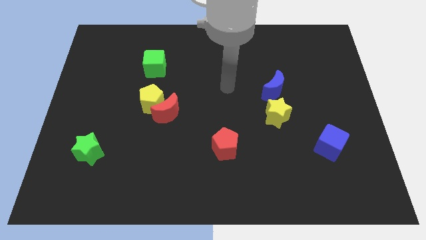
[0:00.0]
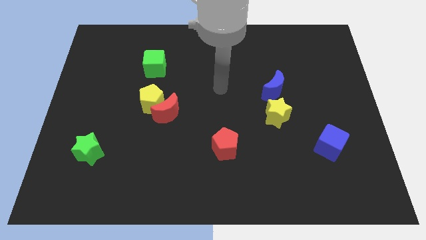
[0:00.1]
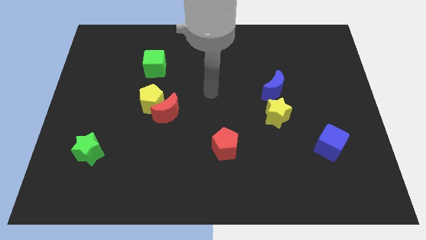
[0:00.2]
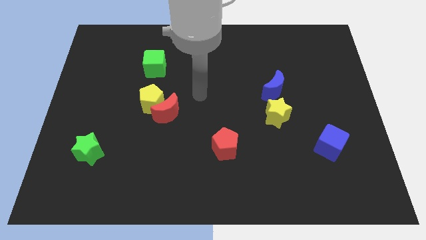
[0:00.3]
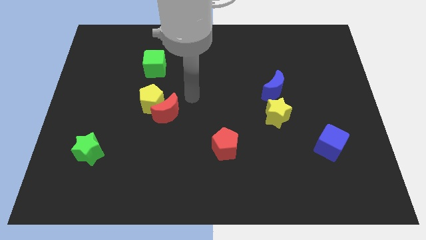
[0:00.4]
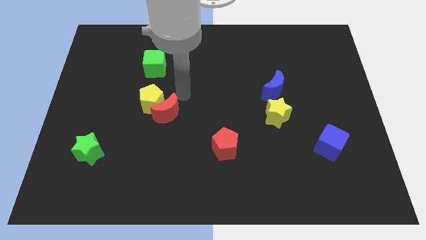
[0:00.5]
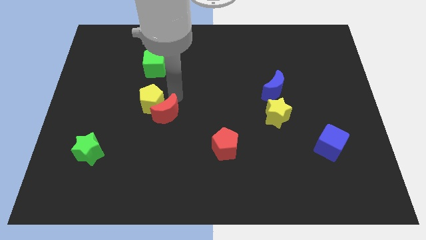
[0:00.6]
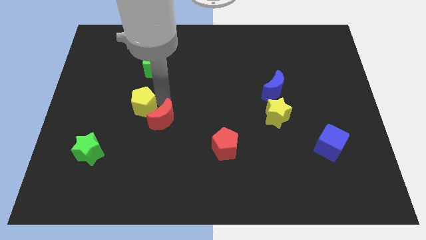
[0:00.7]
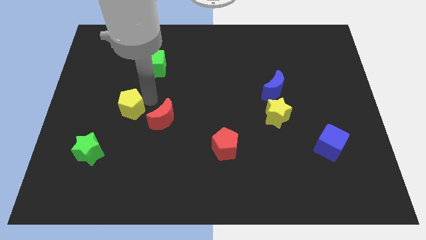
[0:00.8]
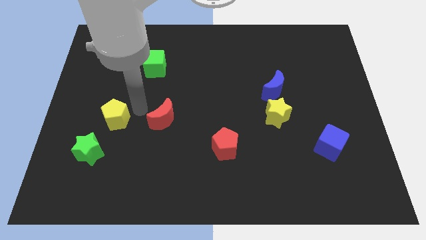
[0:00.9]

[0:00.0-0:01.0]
separate the red moon from the yellow pentagon

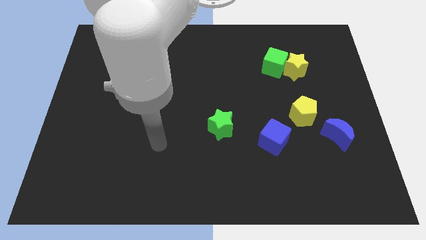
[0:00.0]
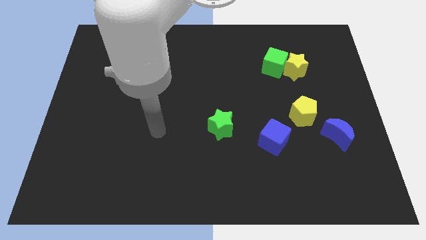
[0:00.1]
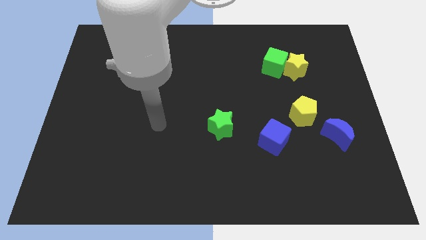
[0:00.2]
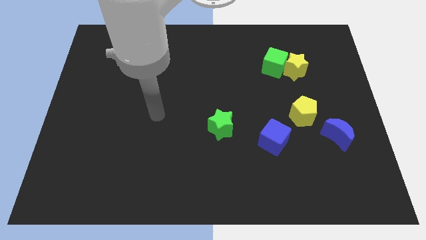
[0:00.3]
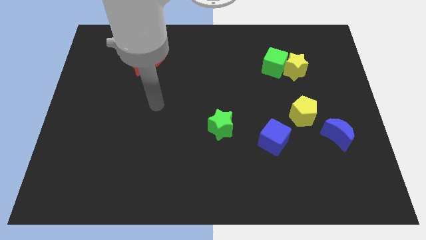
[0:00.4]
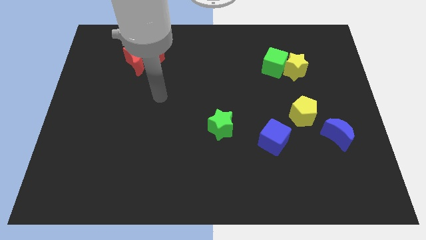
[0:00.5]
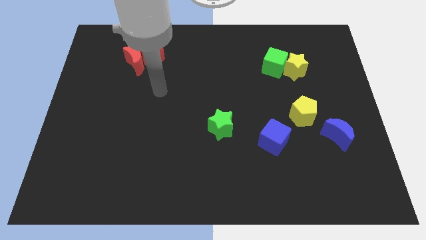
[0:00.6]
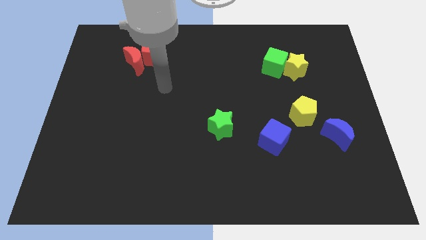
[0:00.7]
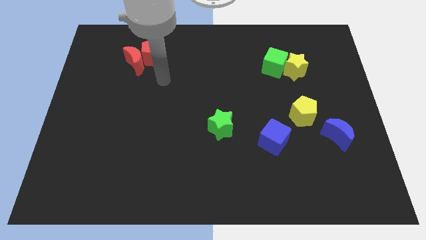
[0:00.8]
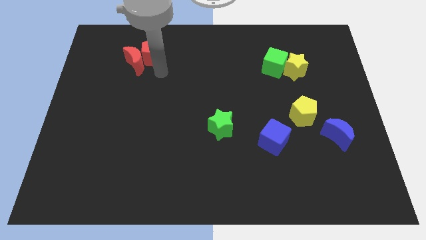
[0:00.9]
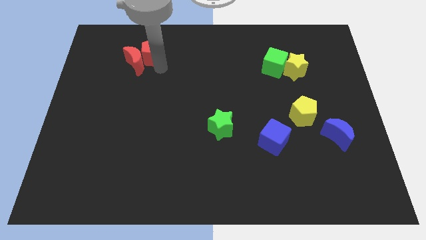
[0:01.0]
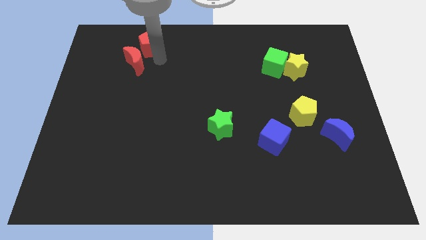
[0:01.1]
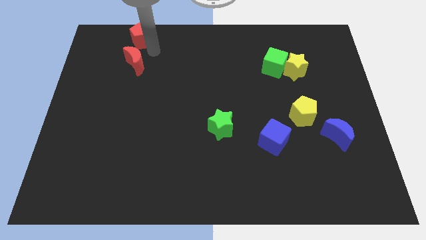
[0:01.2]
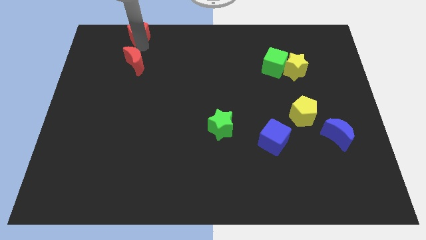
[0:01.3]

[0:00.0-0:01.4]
pull the red moon apart from the red pentagon

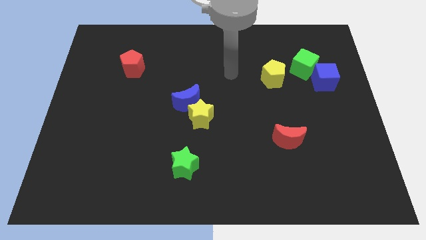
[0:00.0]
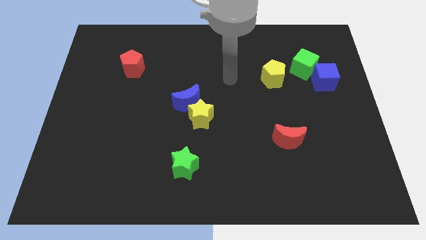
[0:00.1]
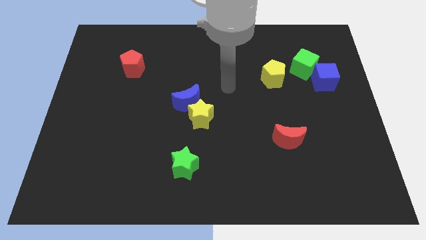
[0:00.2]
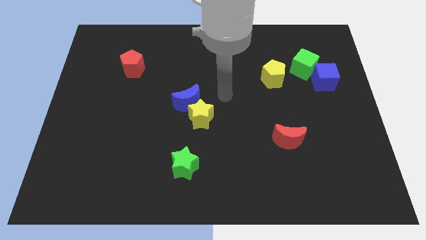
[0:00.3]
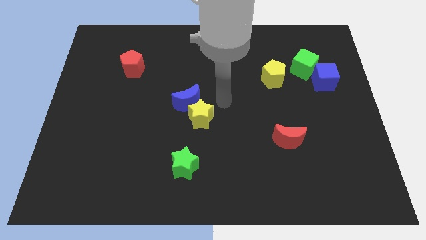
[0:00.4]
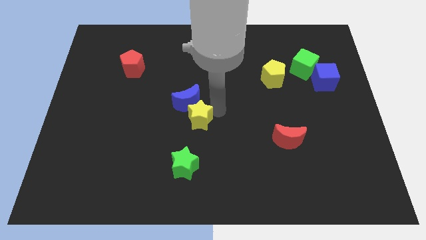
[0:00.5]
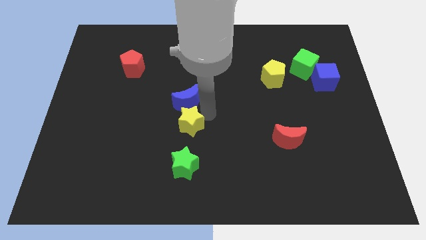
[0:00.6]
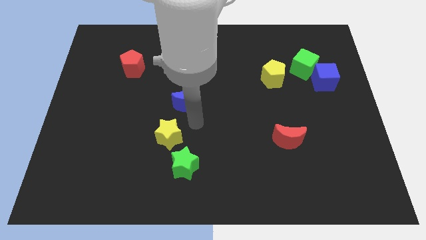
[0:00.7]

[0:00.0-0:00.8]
move the blue moon away from the yellow star

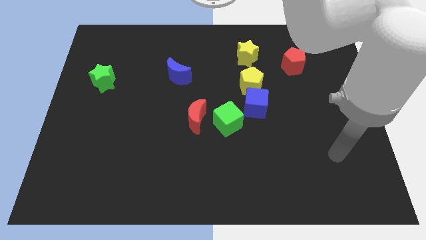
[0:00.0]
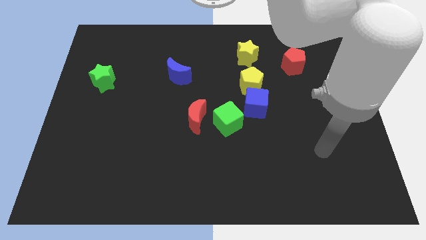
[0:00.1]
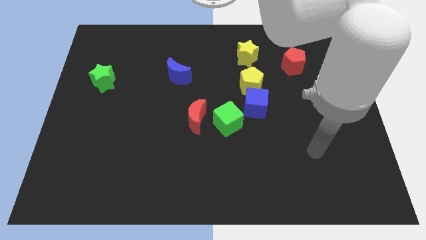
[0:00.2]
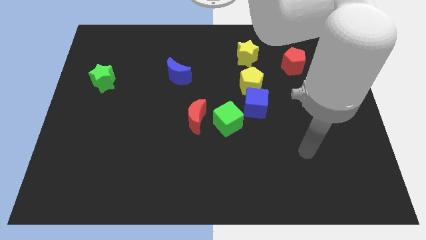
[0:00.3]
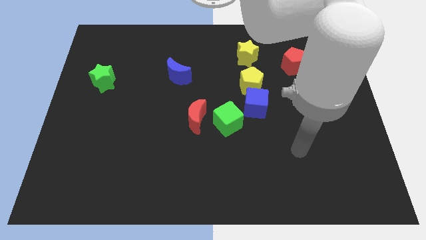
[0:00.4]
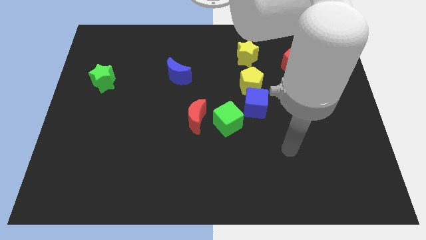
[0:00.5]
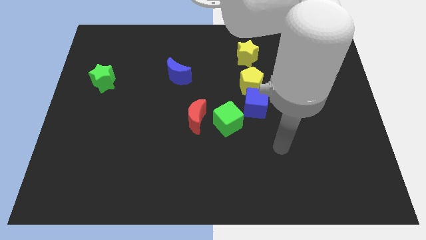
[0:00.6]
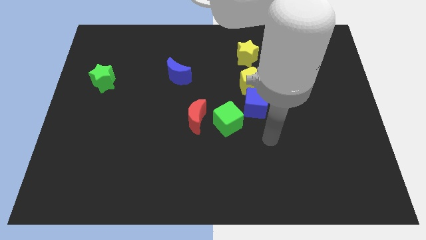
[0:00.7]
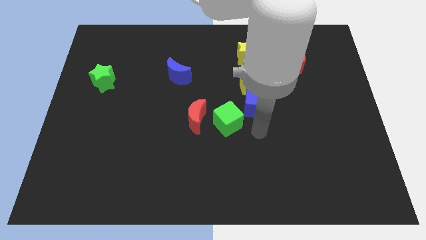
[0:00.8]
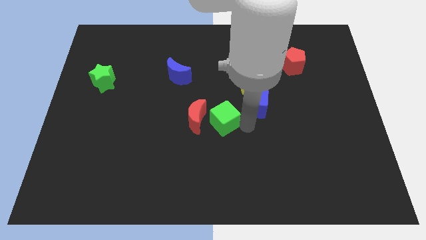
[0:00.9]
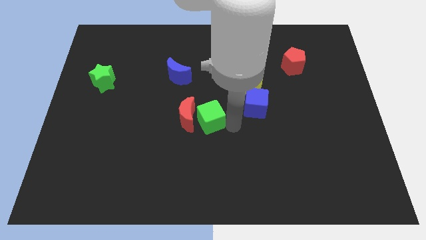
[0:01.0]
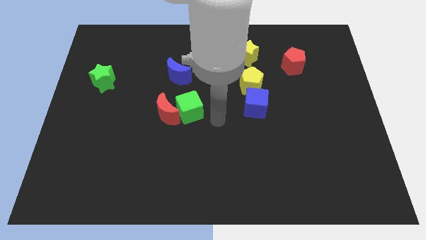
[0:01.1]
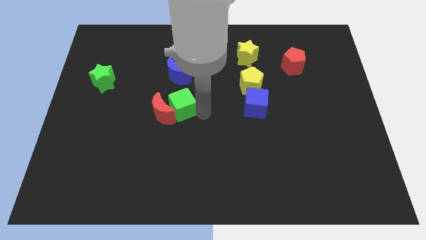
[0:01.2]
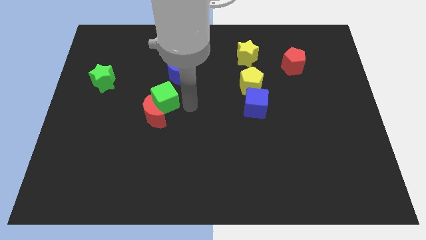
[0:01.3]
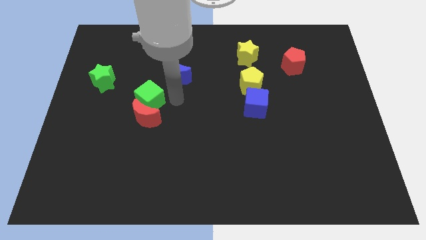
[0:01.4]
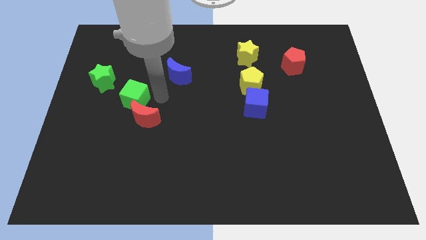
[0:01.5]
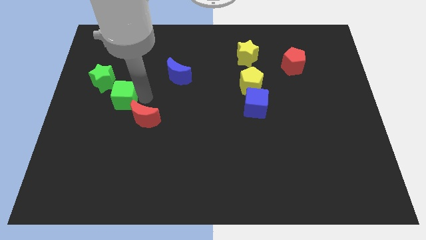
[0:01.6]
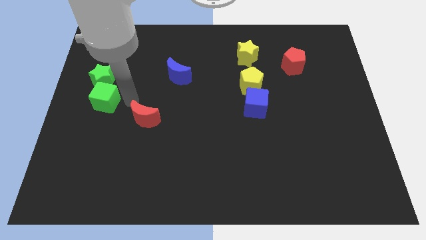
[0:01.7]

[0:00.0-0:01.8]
move the red moon away from the green cube

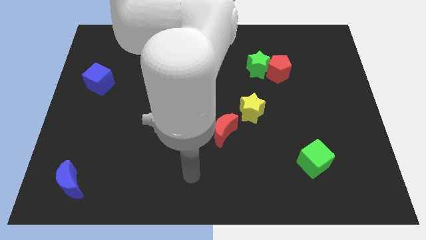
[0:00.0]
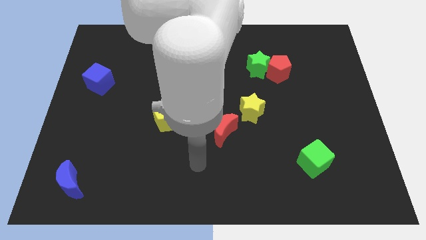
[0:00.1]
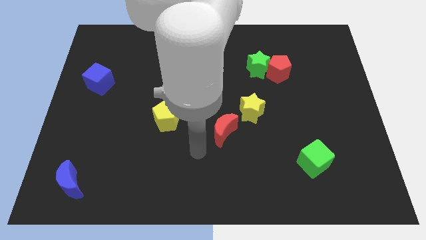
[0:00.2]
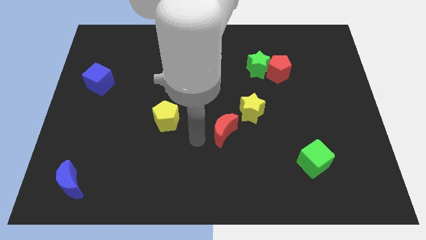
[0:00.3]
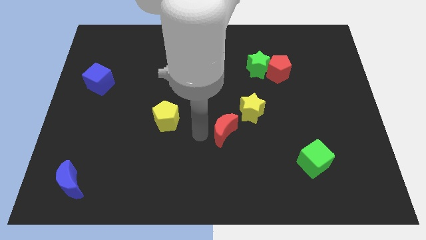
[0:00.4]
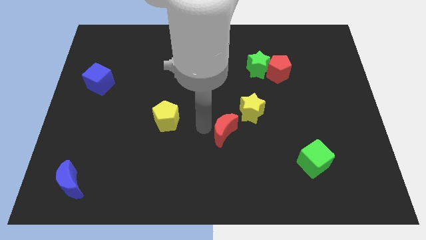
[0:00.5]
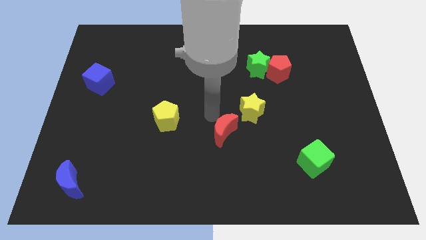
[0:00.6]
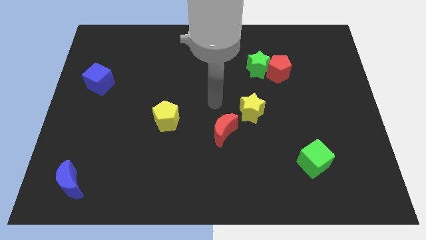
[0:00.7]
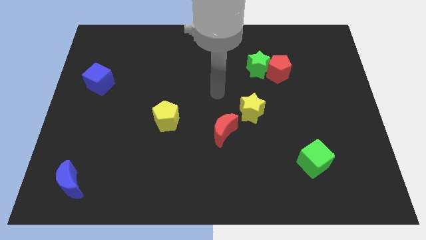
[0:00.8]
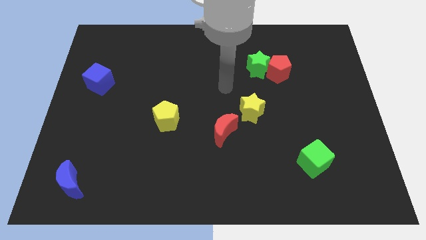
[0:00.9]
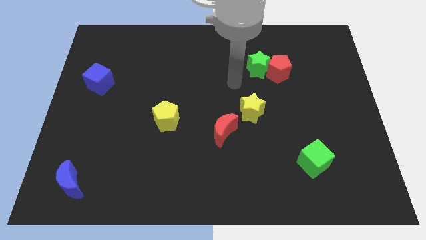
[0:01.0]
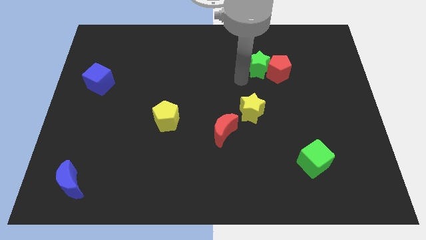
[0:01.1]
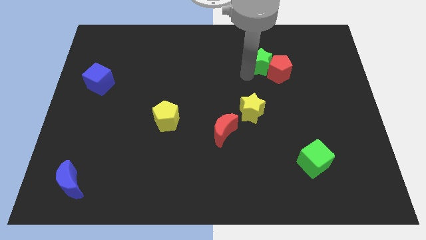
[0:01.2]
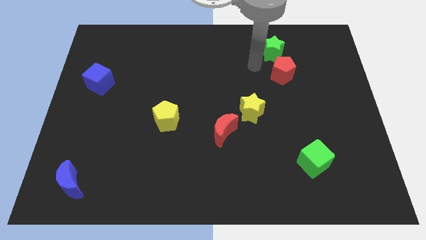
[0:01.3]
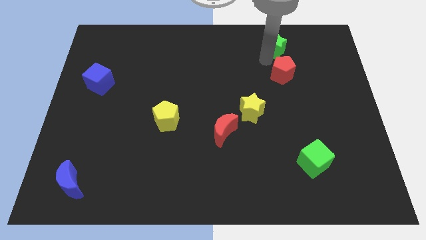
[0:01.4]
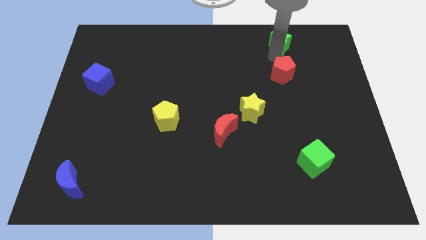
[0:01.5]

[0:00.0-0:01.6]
pull the red pentagon apart from the green star

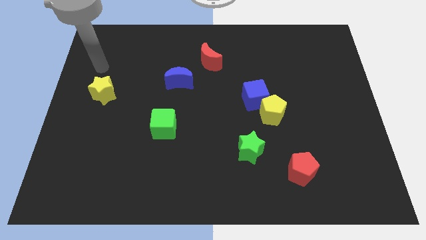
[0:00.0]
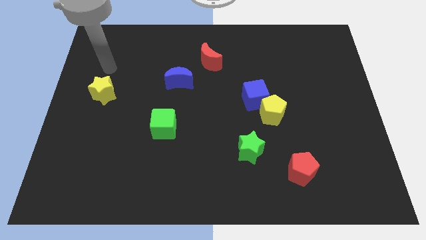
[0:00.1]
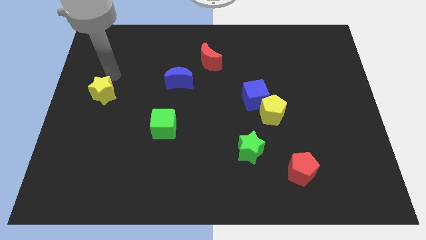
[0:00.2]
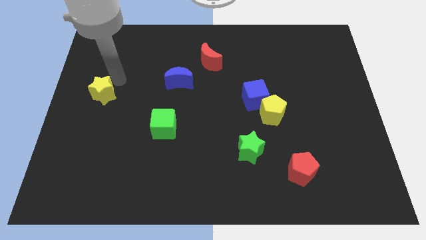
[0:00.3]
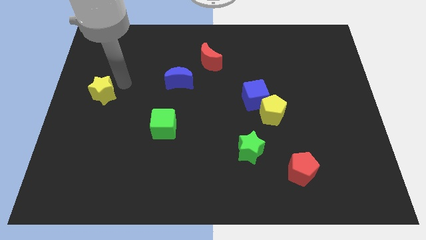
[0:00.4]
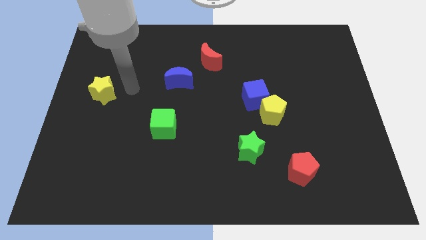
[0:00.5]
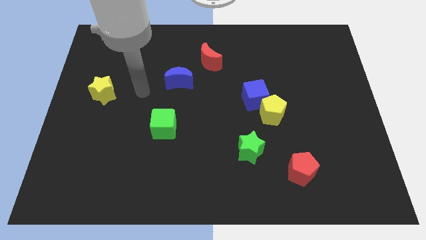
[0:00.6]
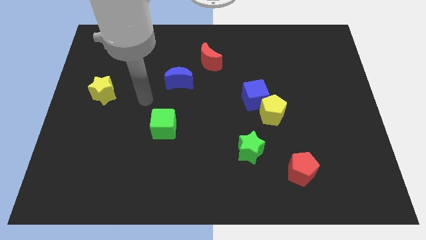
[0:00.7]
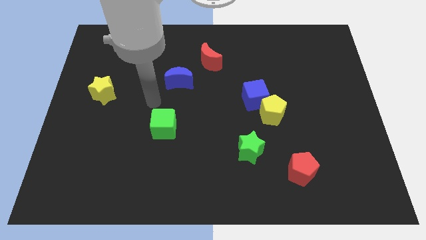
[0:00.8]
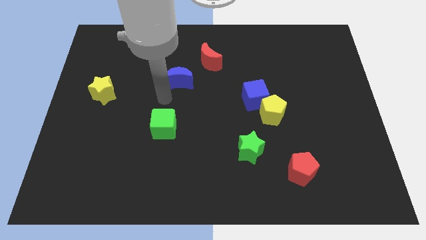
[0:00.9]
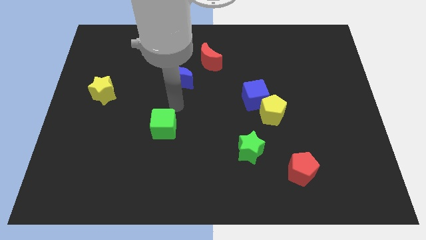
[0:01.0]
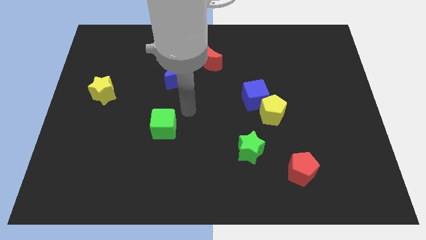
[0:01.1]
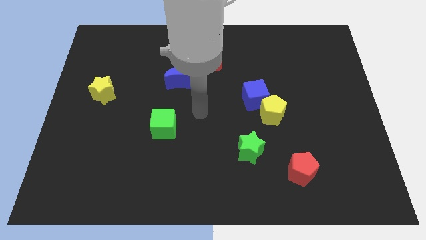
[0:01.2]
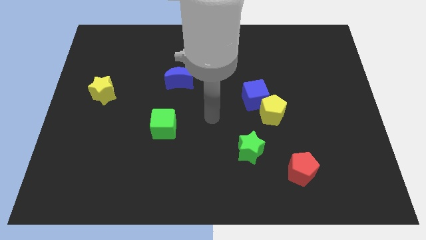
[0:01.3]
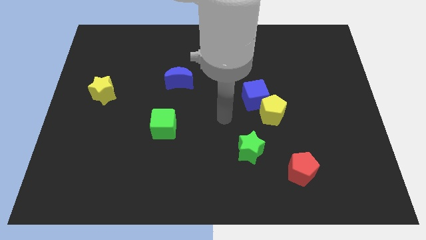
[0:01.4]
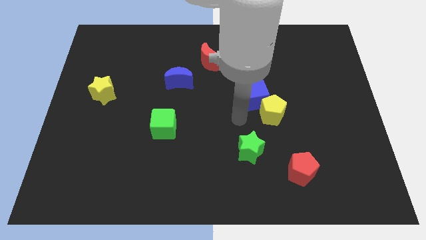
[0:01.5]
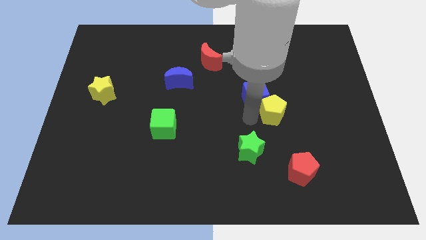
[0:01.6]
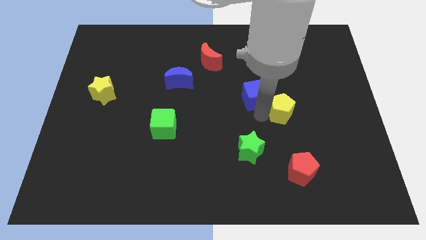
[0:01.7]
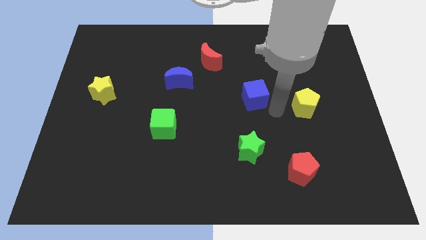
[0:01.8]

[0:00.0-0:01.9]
pull the blue cube apart from the yellow pentagon

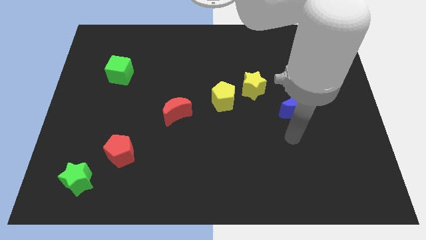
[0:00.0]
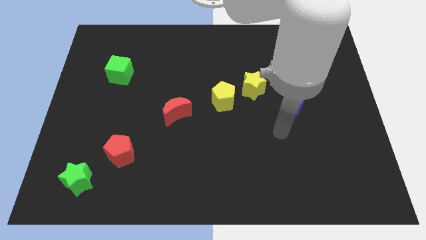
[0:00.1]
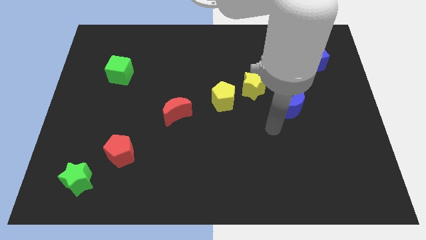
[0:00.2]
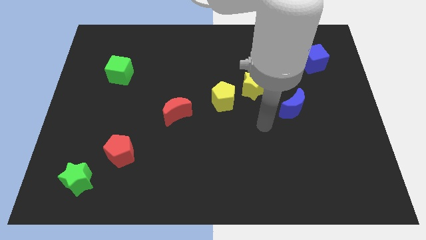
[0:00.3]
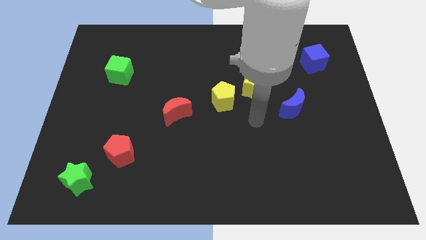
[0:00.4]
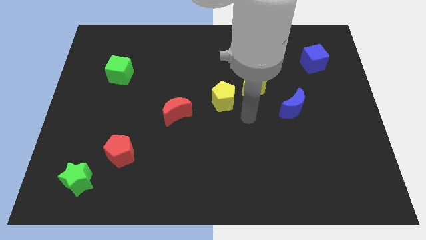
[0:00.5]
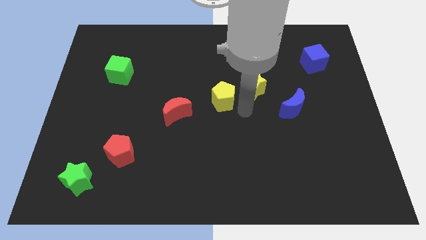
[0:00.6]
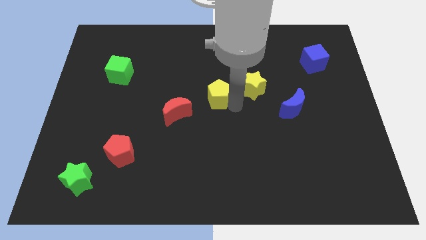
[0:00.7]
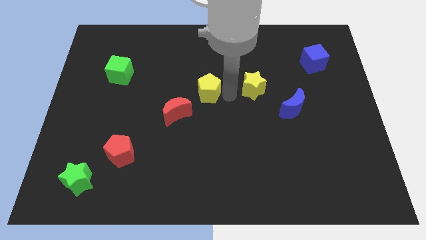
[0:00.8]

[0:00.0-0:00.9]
move the yellow star away from the yellow pentagon
